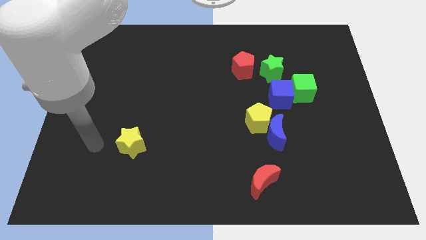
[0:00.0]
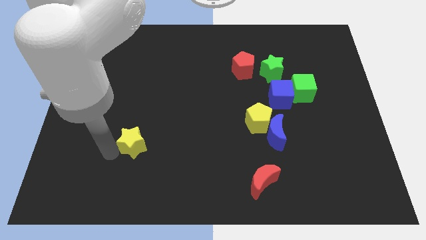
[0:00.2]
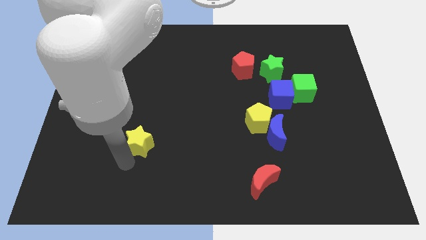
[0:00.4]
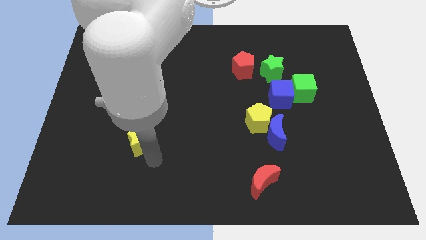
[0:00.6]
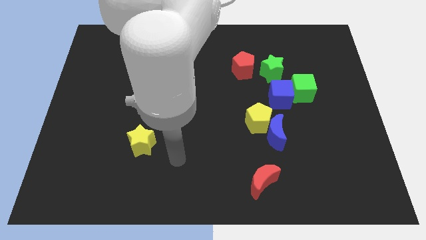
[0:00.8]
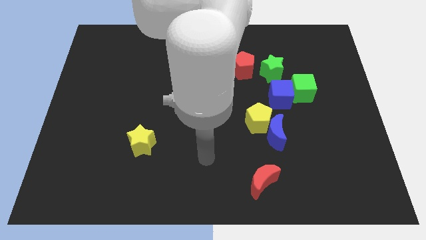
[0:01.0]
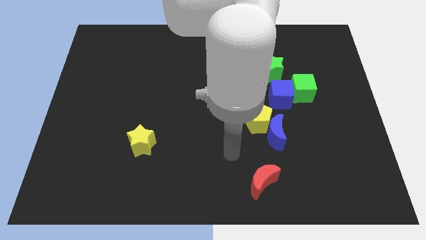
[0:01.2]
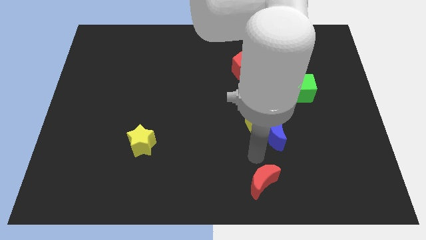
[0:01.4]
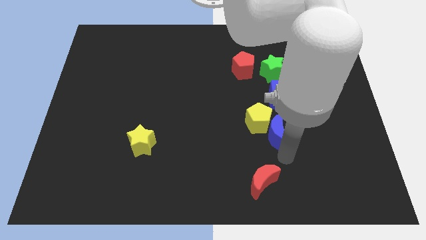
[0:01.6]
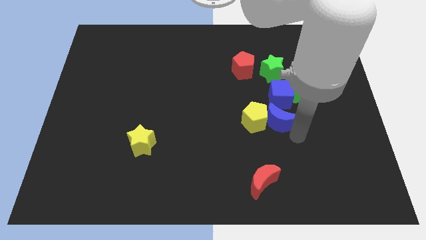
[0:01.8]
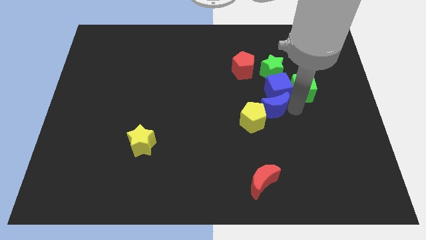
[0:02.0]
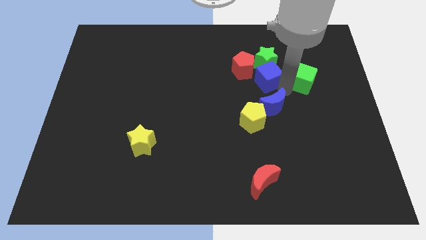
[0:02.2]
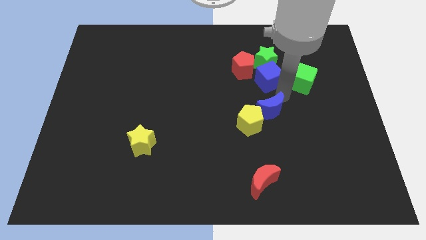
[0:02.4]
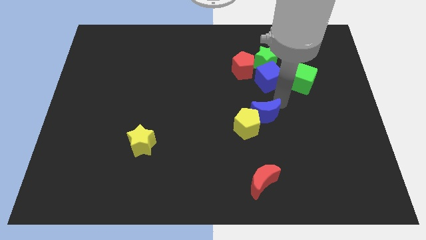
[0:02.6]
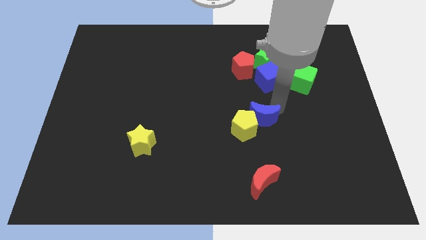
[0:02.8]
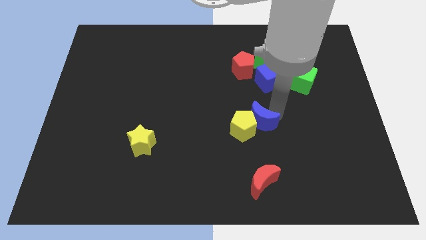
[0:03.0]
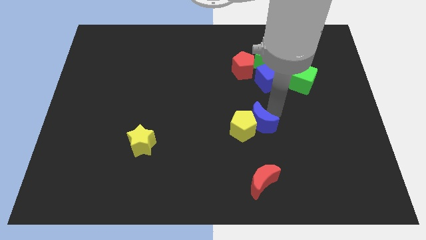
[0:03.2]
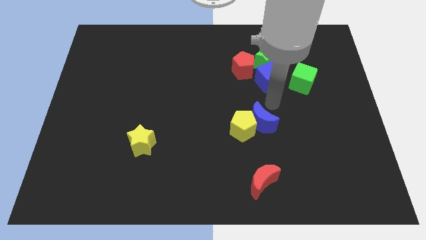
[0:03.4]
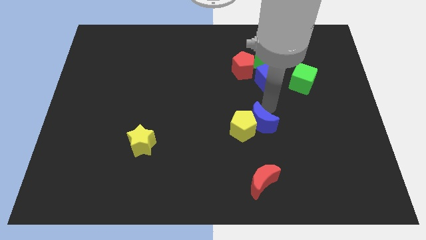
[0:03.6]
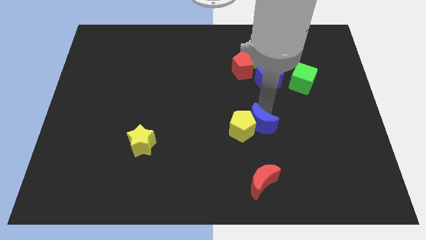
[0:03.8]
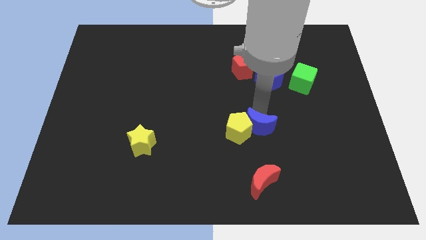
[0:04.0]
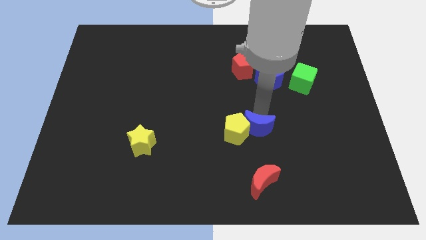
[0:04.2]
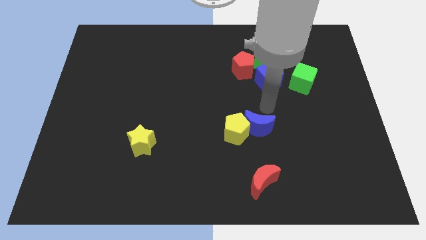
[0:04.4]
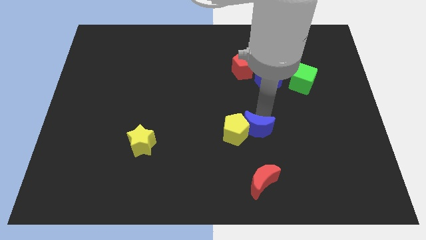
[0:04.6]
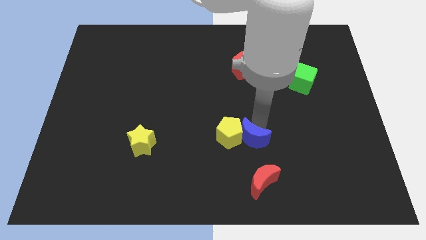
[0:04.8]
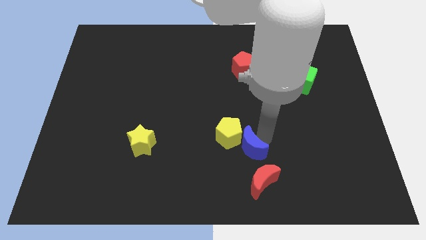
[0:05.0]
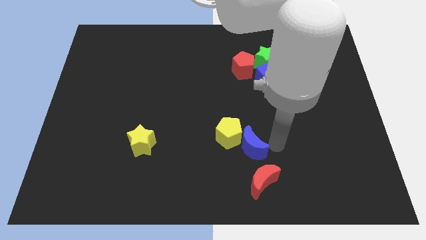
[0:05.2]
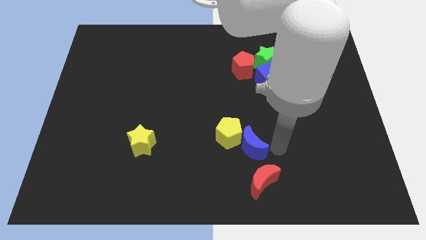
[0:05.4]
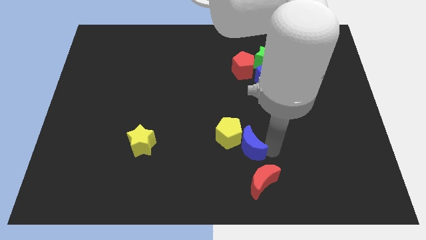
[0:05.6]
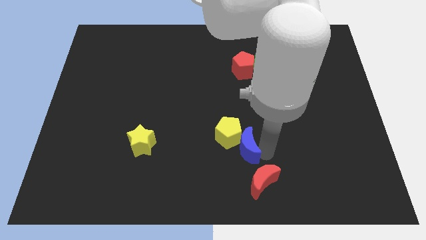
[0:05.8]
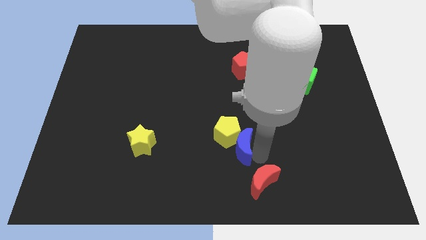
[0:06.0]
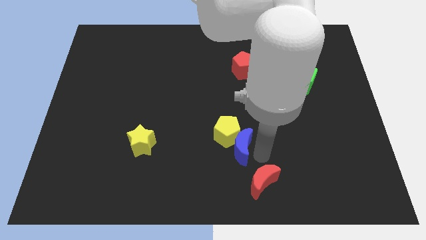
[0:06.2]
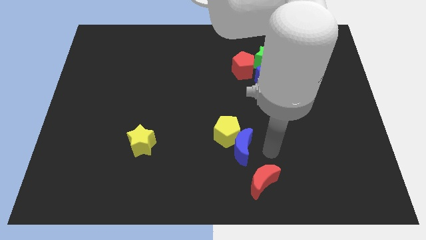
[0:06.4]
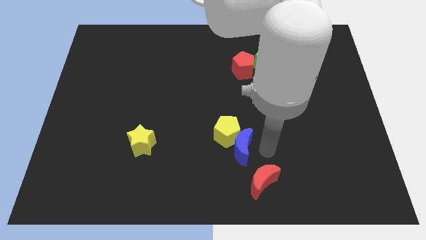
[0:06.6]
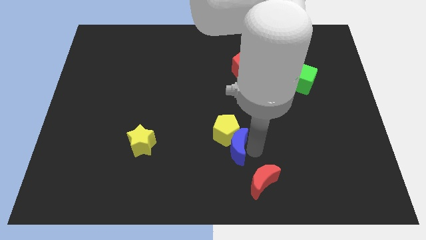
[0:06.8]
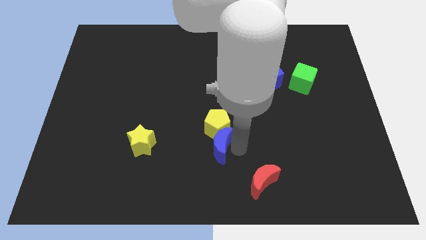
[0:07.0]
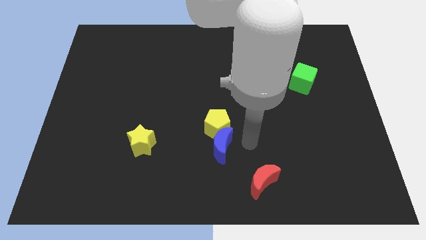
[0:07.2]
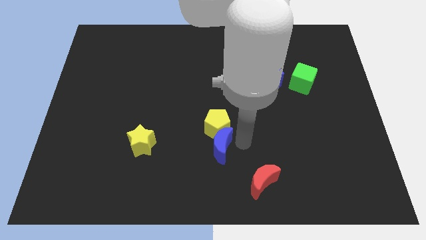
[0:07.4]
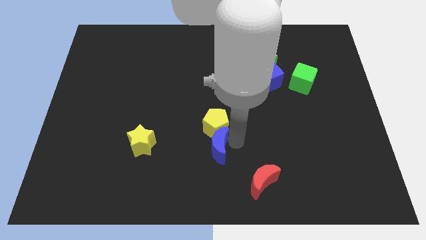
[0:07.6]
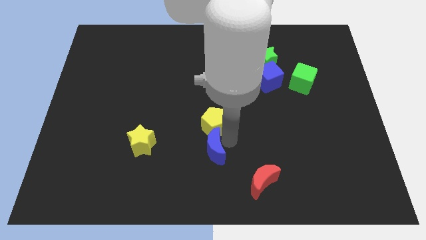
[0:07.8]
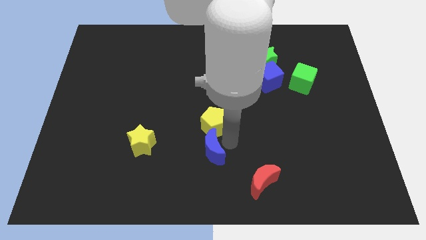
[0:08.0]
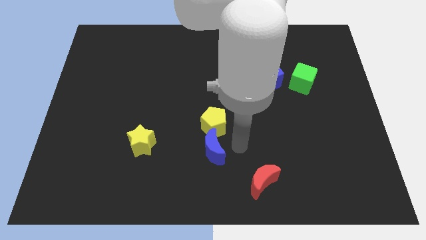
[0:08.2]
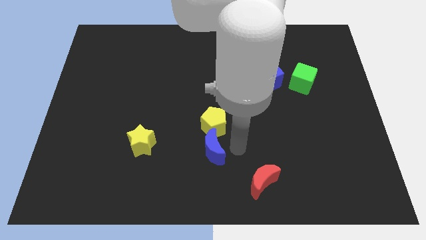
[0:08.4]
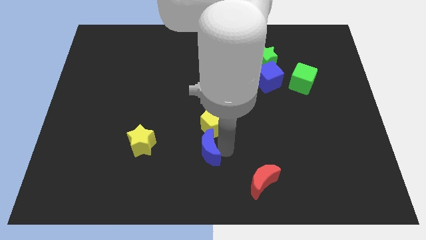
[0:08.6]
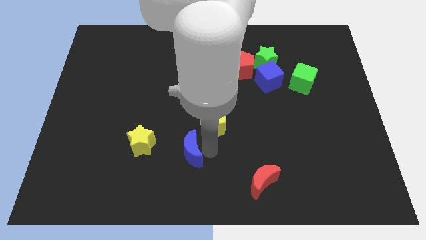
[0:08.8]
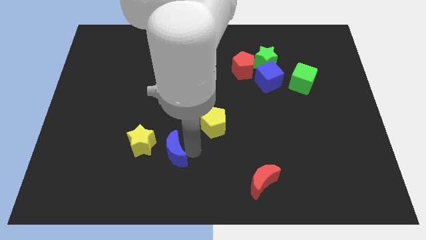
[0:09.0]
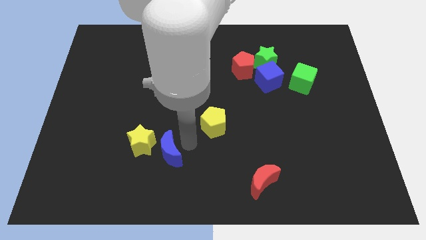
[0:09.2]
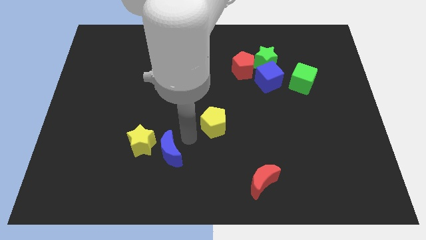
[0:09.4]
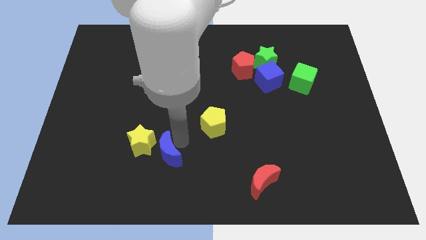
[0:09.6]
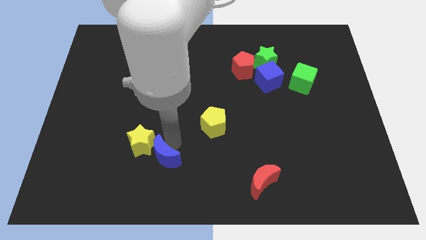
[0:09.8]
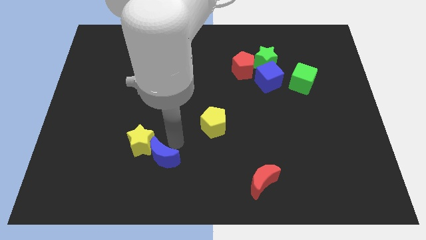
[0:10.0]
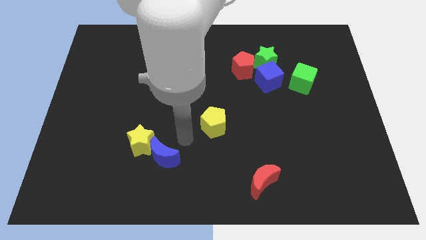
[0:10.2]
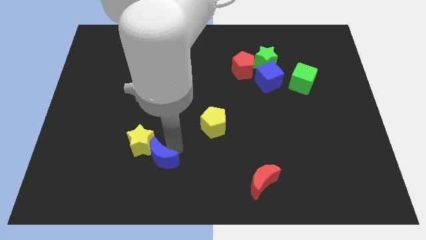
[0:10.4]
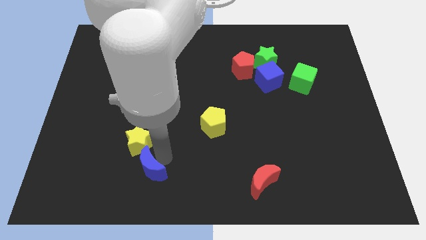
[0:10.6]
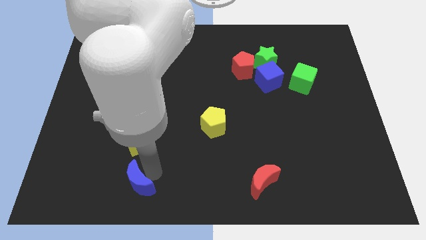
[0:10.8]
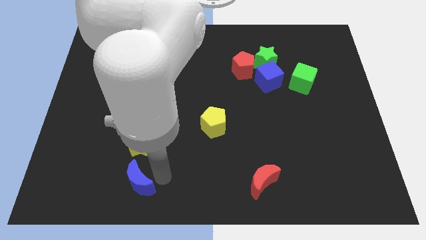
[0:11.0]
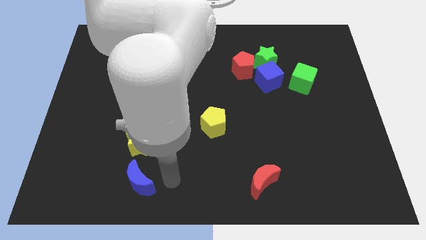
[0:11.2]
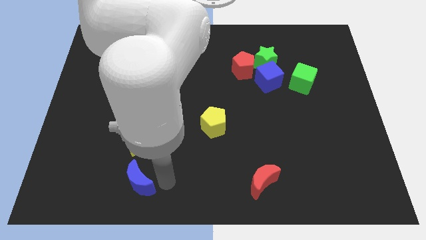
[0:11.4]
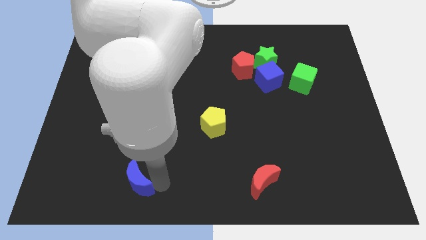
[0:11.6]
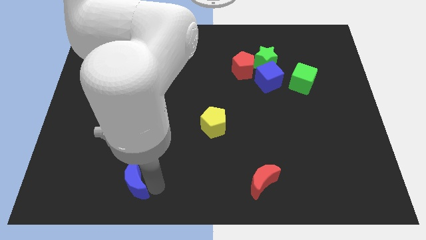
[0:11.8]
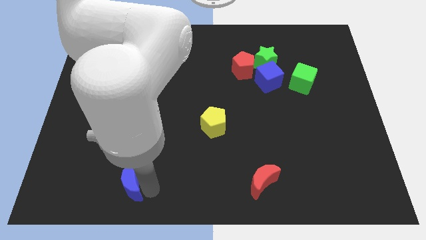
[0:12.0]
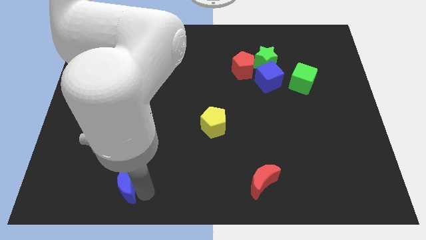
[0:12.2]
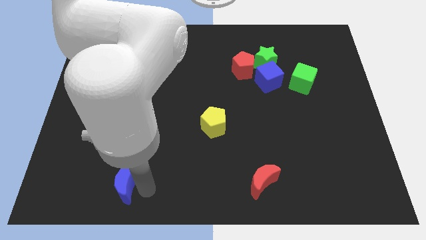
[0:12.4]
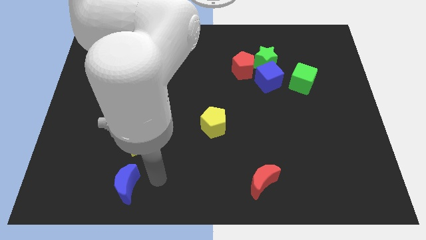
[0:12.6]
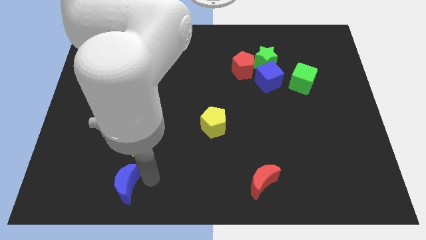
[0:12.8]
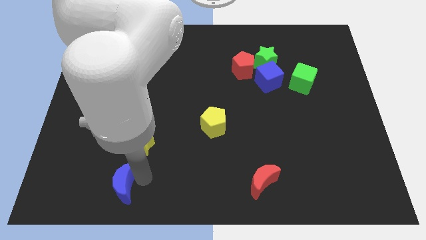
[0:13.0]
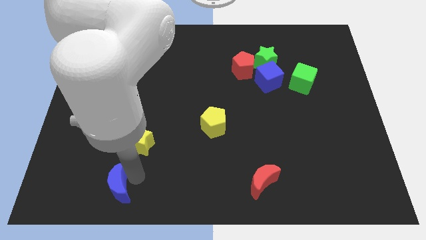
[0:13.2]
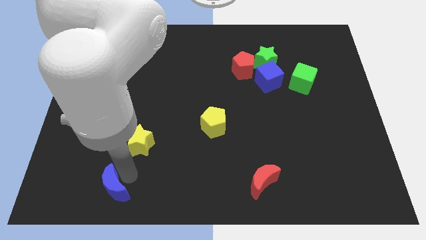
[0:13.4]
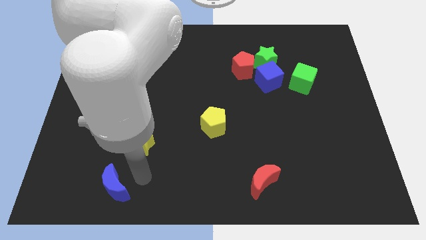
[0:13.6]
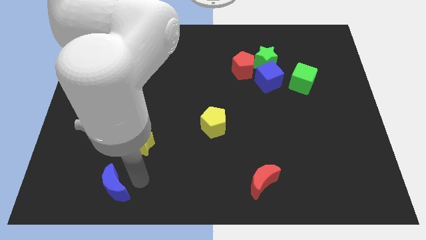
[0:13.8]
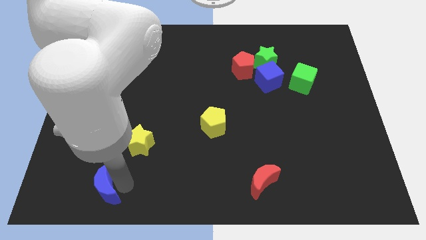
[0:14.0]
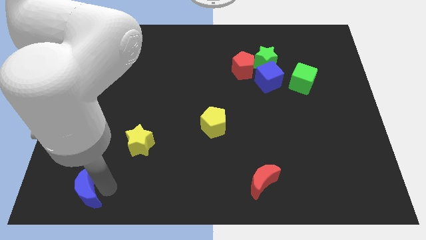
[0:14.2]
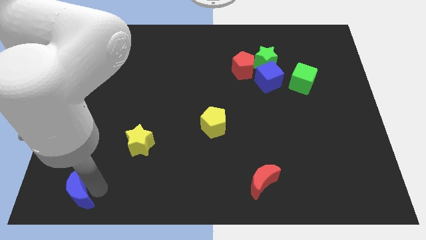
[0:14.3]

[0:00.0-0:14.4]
put the blue moon to the lower left corner
